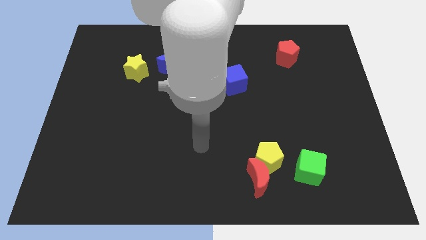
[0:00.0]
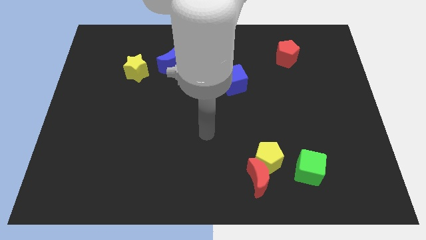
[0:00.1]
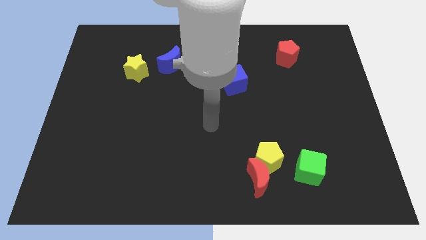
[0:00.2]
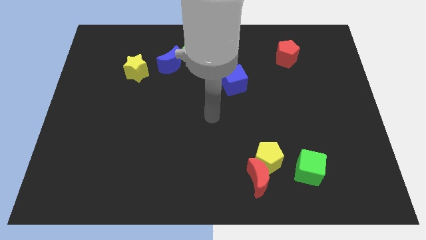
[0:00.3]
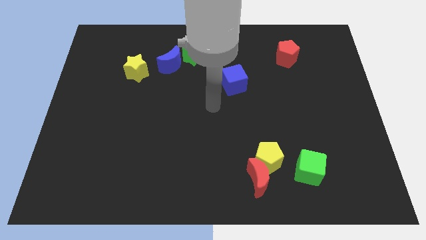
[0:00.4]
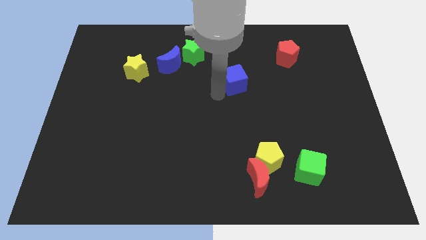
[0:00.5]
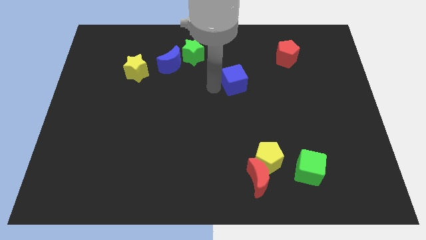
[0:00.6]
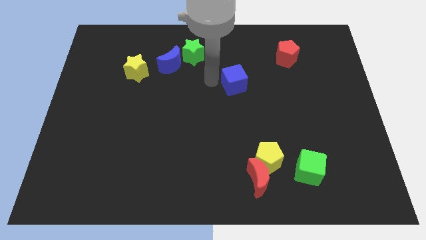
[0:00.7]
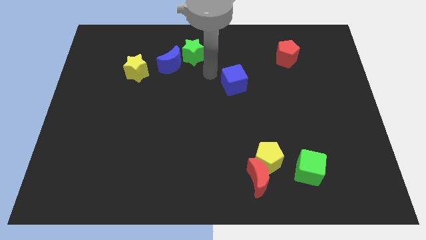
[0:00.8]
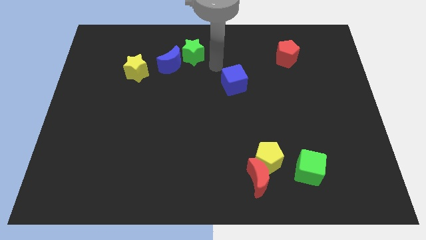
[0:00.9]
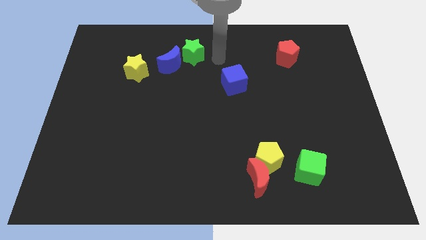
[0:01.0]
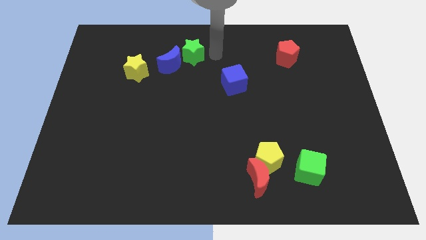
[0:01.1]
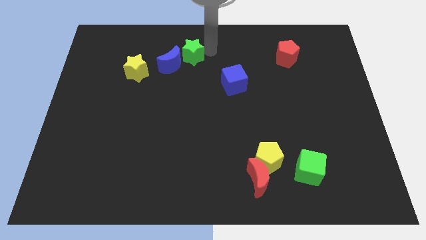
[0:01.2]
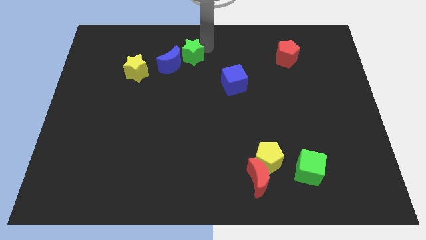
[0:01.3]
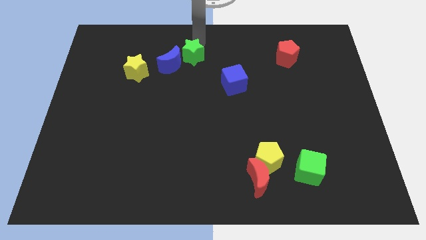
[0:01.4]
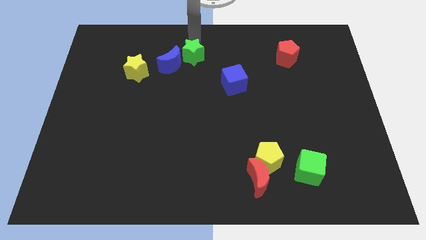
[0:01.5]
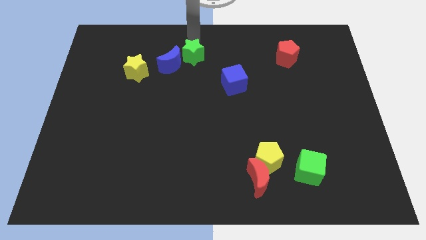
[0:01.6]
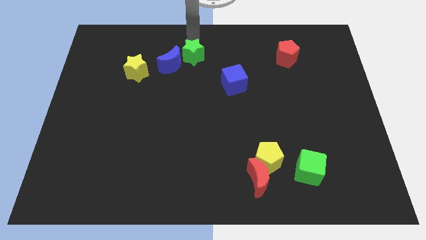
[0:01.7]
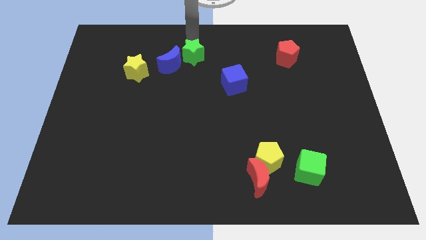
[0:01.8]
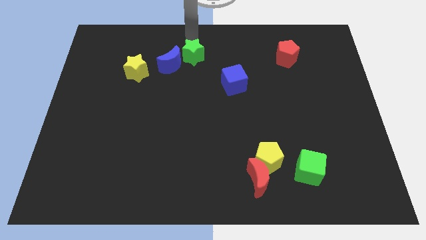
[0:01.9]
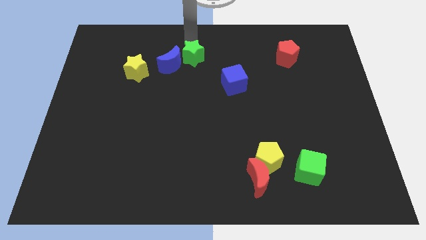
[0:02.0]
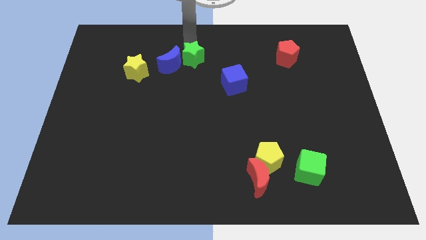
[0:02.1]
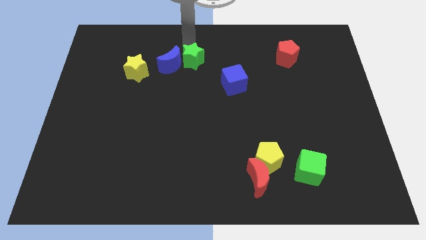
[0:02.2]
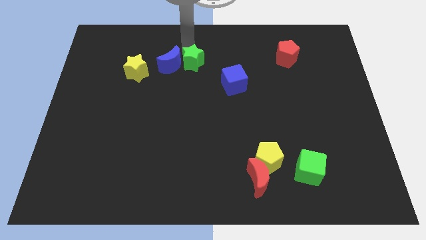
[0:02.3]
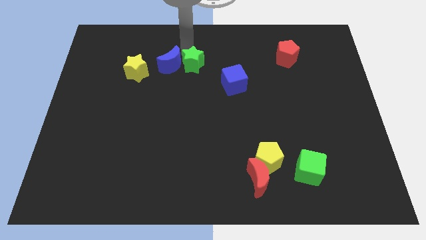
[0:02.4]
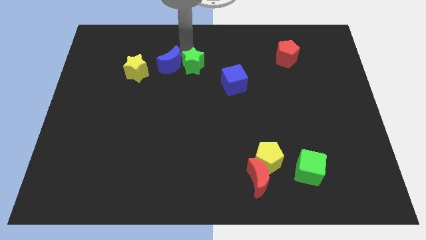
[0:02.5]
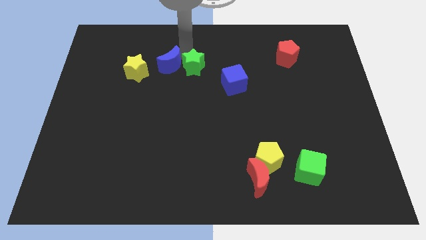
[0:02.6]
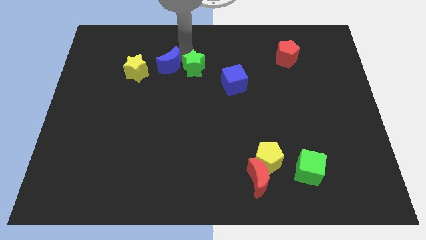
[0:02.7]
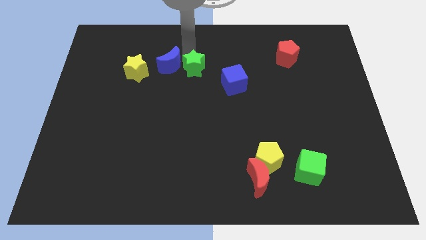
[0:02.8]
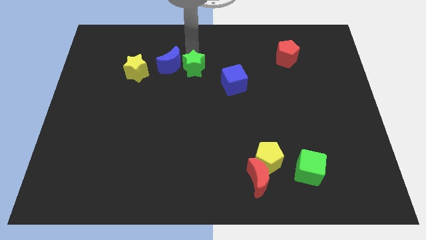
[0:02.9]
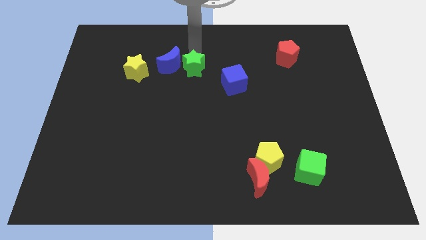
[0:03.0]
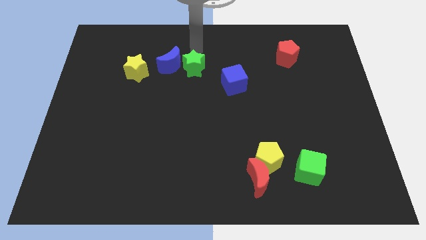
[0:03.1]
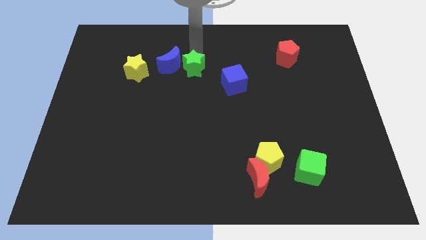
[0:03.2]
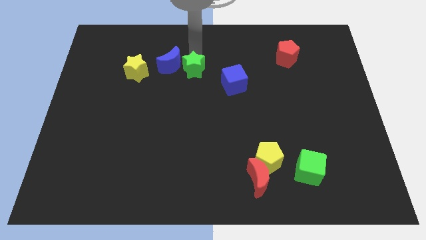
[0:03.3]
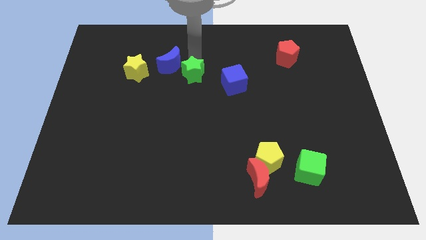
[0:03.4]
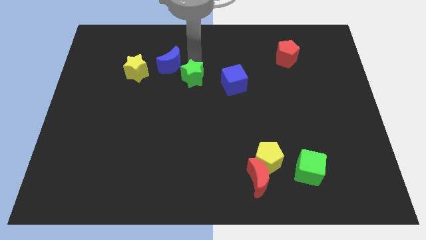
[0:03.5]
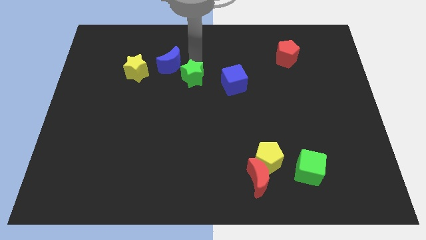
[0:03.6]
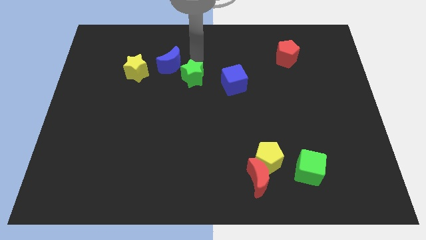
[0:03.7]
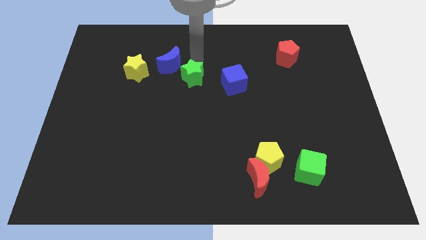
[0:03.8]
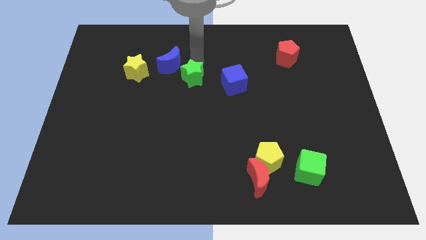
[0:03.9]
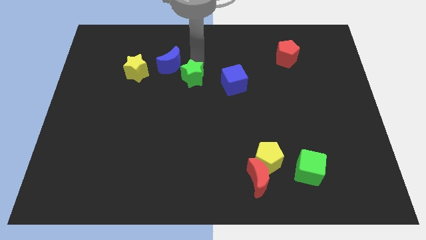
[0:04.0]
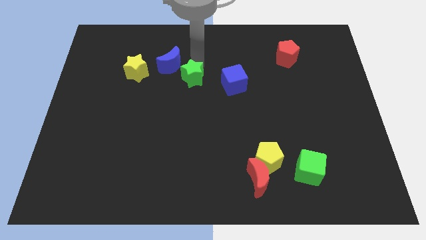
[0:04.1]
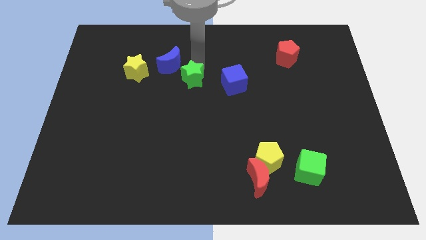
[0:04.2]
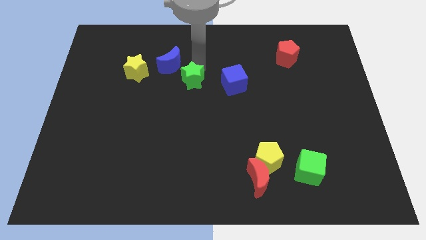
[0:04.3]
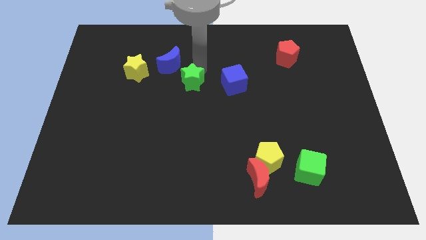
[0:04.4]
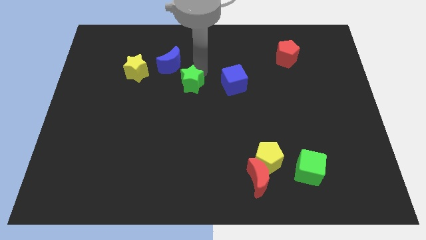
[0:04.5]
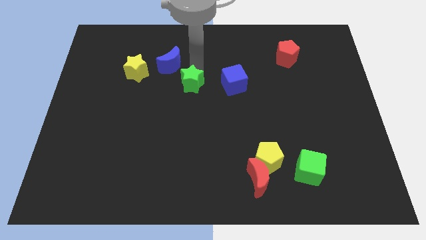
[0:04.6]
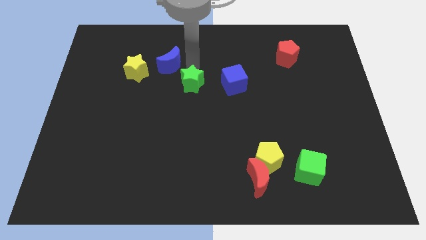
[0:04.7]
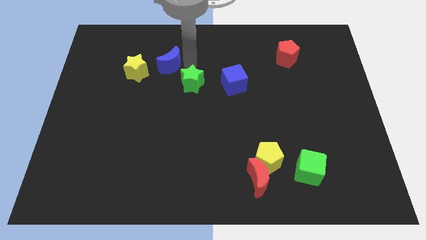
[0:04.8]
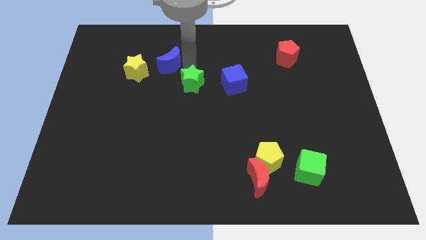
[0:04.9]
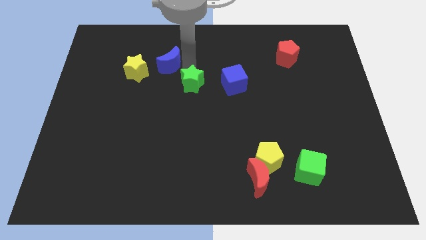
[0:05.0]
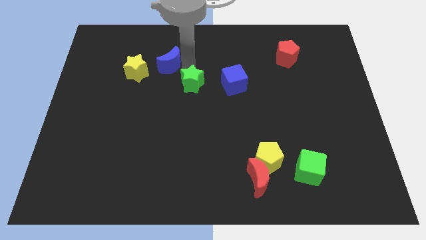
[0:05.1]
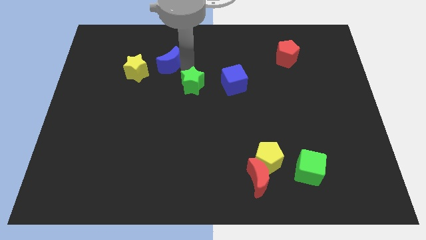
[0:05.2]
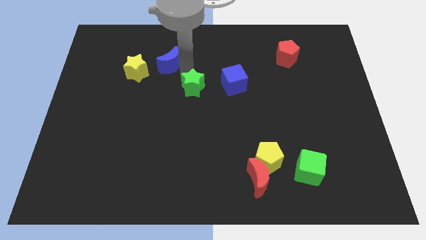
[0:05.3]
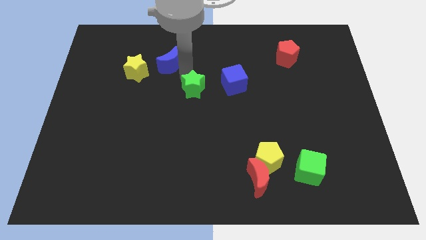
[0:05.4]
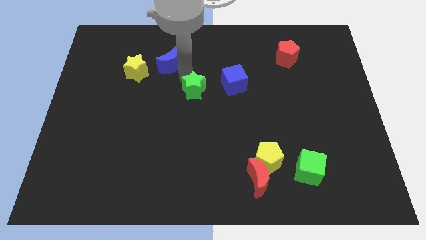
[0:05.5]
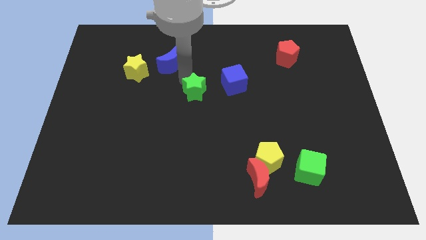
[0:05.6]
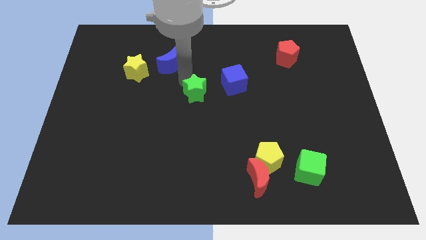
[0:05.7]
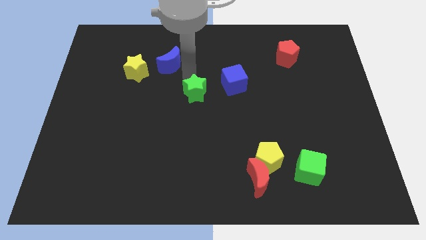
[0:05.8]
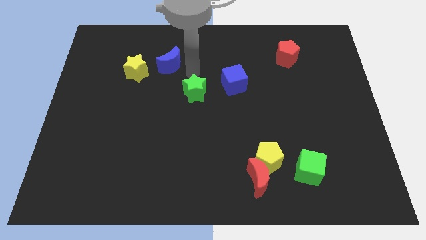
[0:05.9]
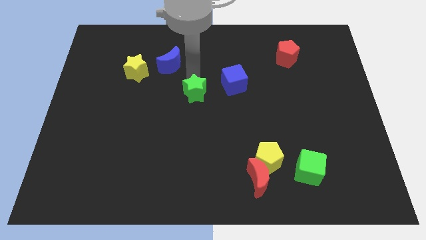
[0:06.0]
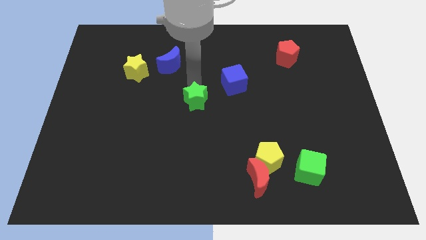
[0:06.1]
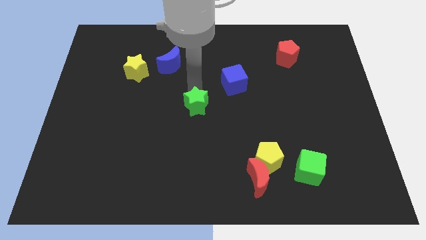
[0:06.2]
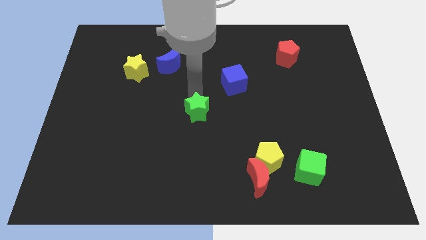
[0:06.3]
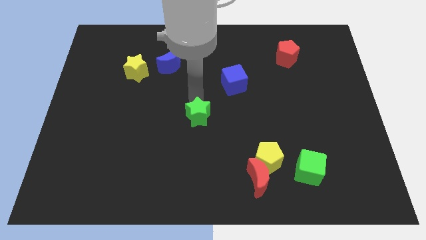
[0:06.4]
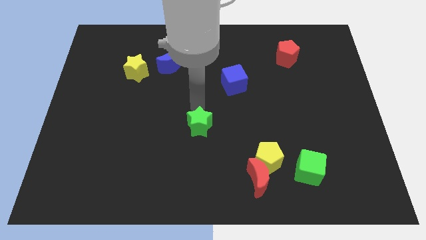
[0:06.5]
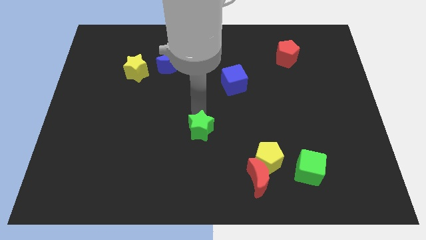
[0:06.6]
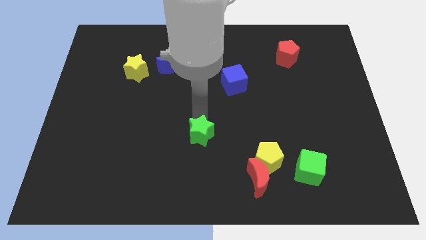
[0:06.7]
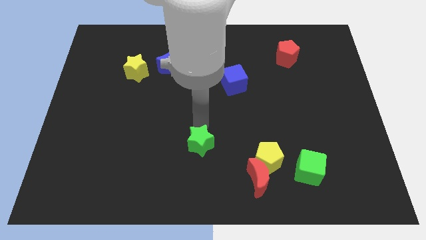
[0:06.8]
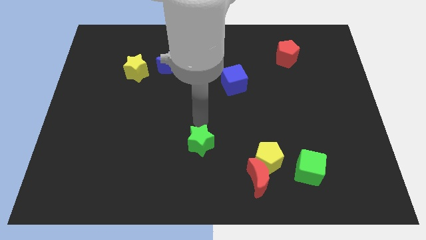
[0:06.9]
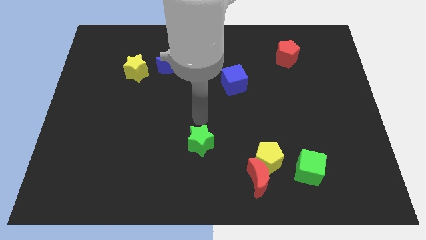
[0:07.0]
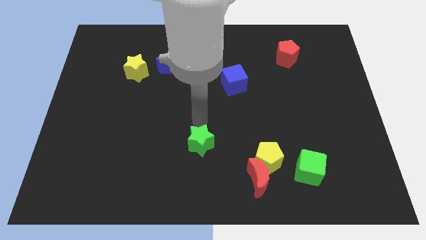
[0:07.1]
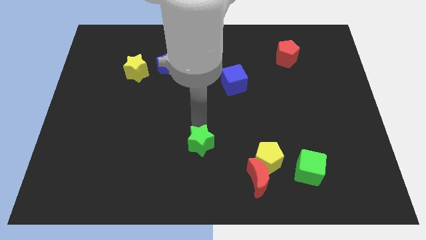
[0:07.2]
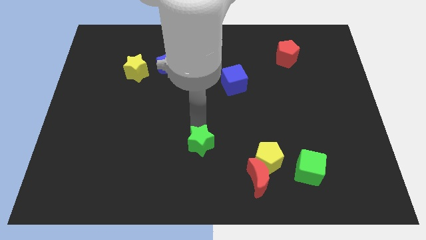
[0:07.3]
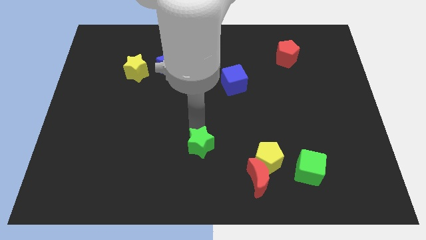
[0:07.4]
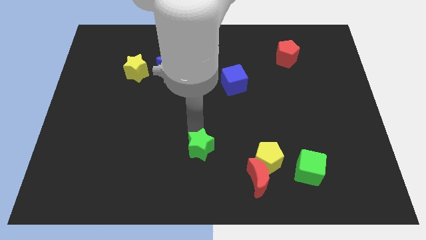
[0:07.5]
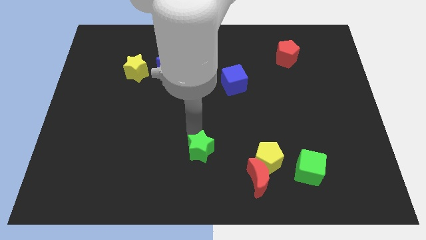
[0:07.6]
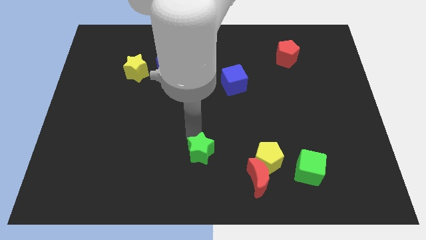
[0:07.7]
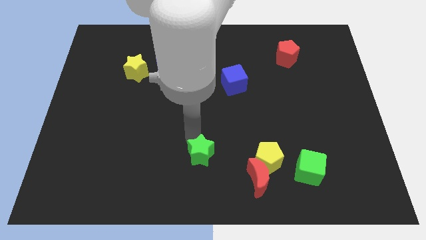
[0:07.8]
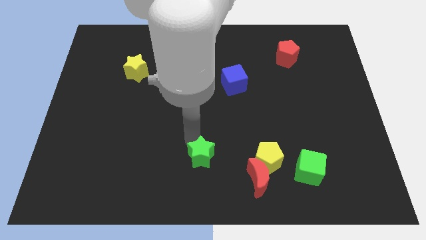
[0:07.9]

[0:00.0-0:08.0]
put the green star to the bottom
